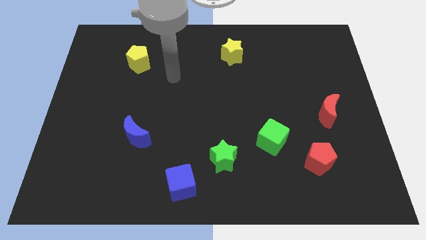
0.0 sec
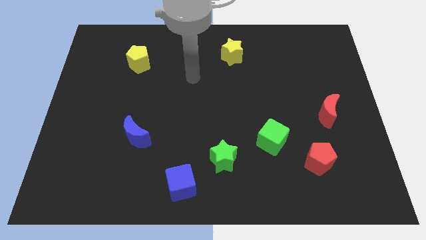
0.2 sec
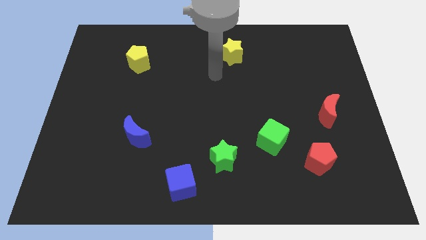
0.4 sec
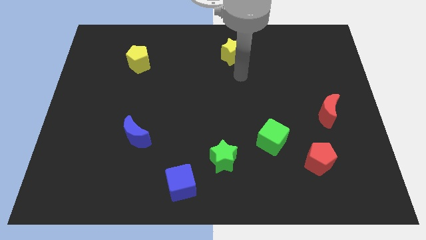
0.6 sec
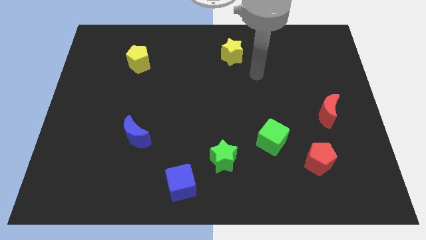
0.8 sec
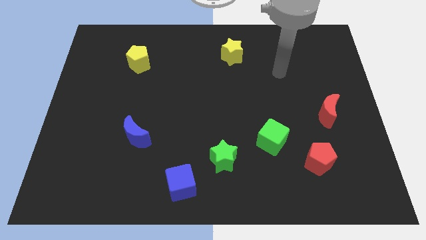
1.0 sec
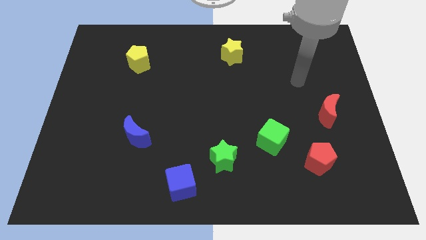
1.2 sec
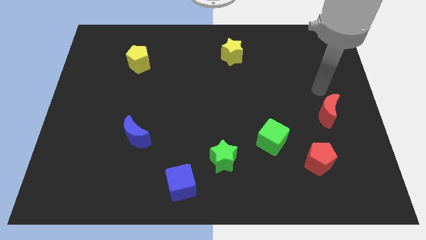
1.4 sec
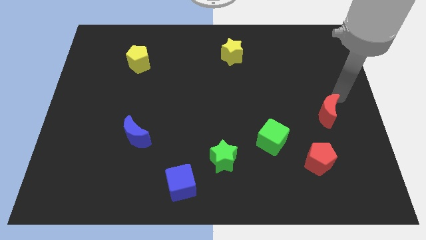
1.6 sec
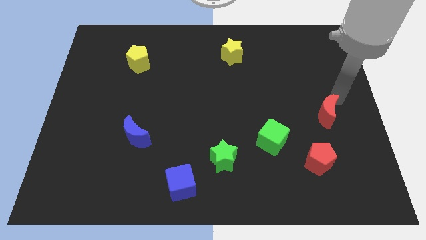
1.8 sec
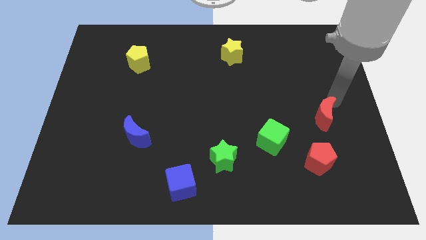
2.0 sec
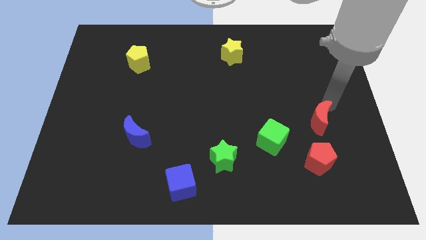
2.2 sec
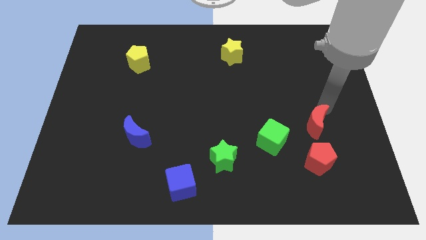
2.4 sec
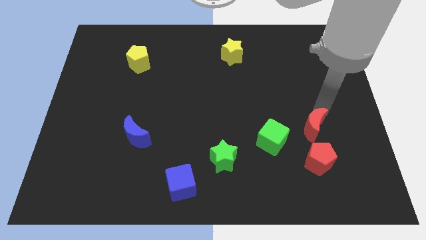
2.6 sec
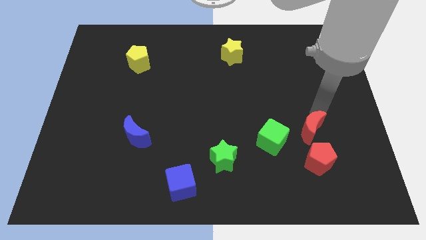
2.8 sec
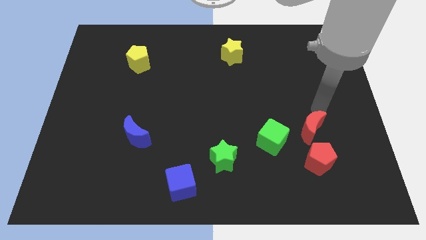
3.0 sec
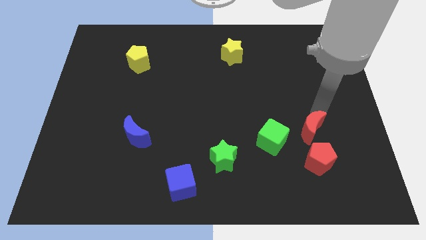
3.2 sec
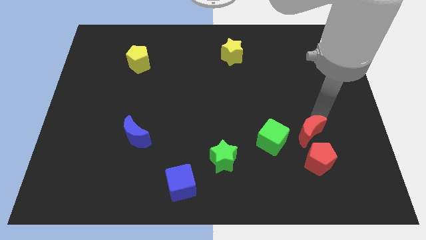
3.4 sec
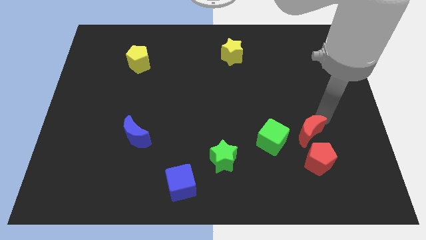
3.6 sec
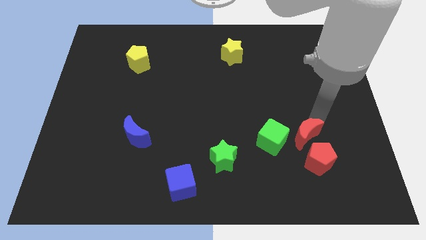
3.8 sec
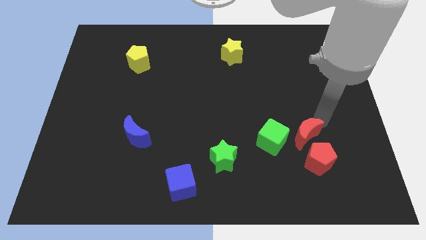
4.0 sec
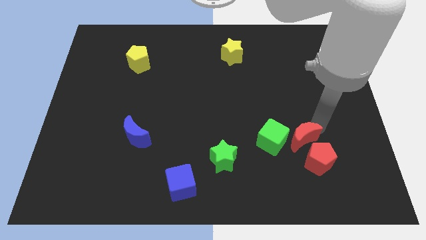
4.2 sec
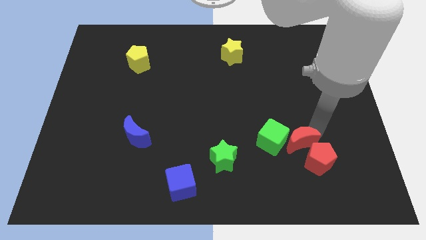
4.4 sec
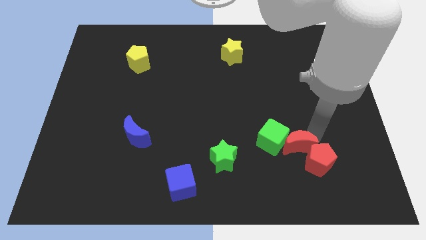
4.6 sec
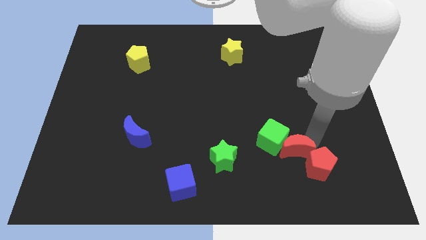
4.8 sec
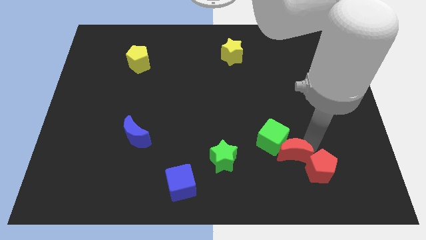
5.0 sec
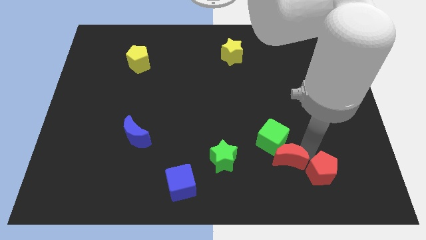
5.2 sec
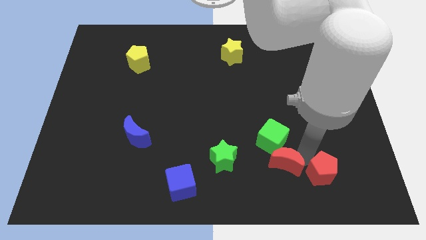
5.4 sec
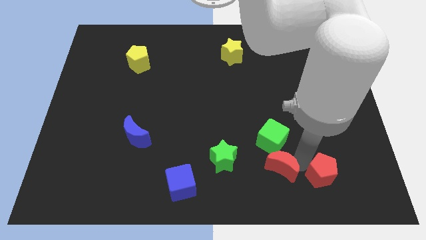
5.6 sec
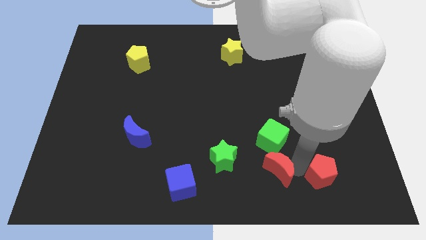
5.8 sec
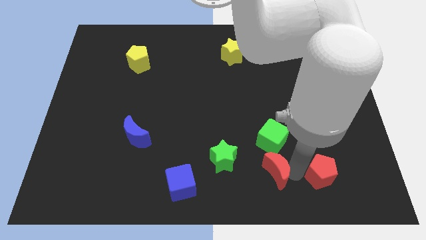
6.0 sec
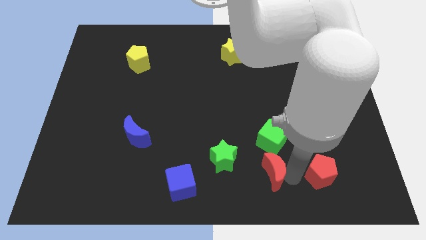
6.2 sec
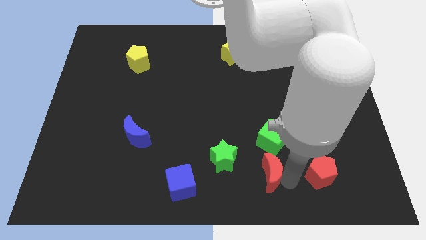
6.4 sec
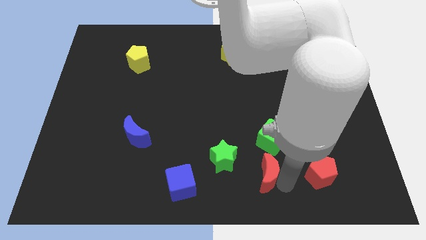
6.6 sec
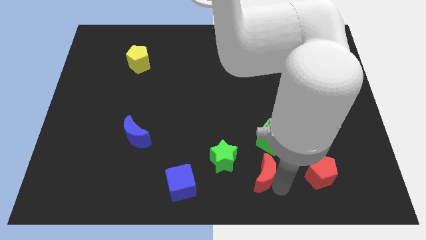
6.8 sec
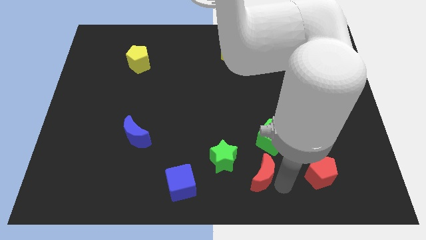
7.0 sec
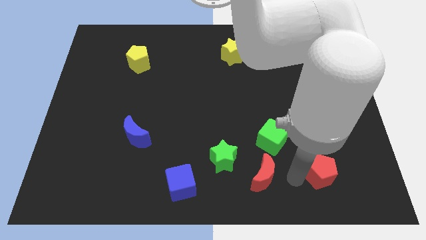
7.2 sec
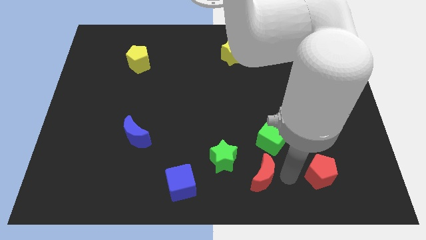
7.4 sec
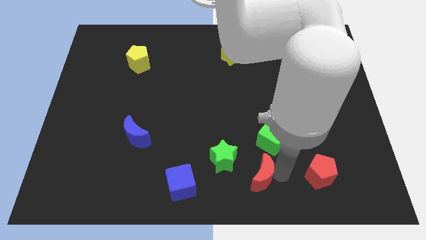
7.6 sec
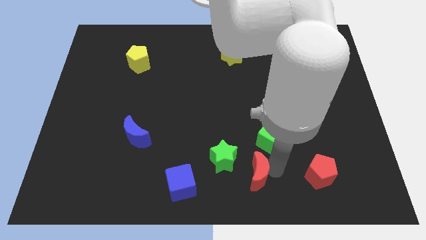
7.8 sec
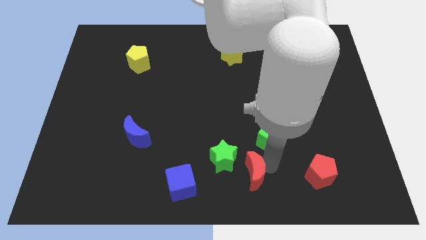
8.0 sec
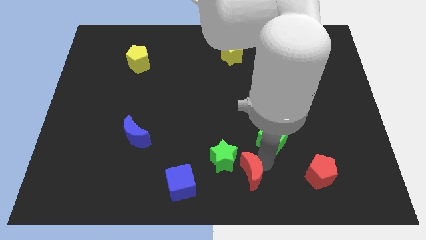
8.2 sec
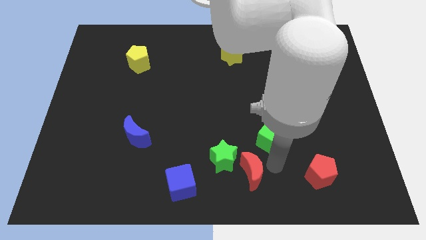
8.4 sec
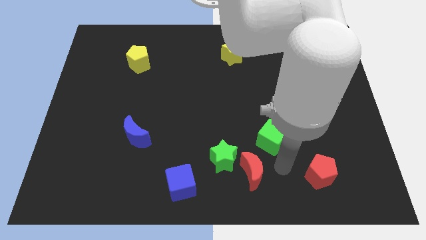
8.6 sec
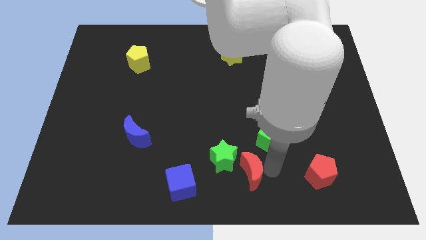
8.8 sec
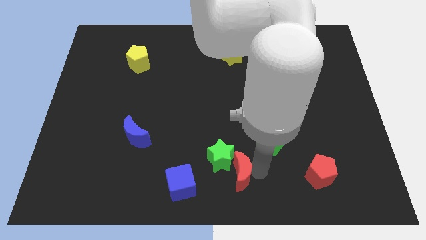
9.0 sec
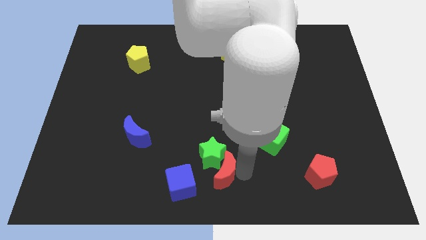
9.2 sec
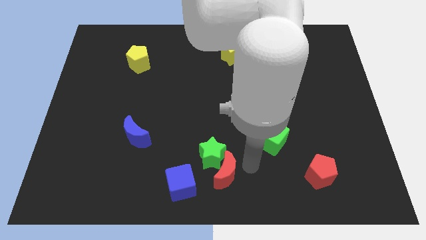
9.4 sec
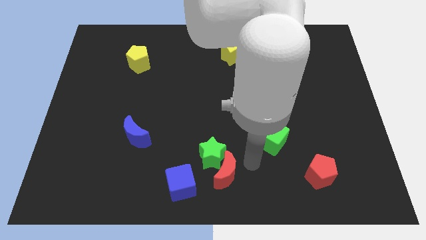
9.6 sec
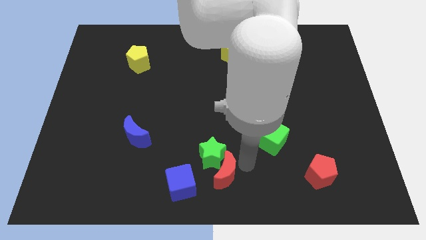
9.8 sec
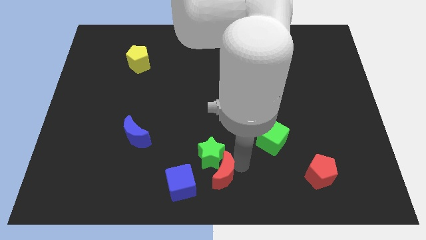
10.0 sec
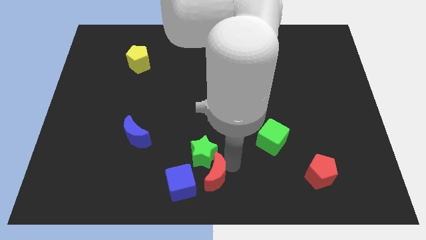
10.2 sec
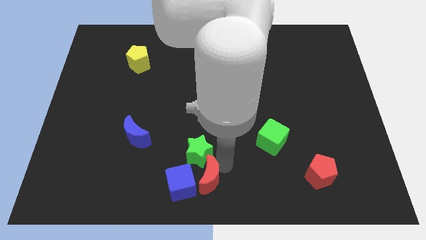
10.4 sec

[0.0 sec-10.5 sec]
put the red moon close to the blue cube

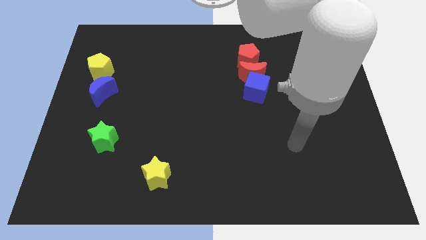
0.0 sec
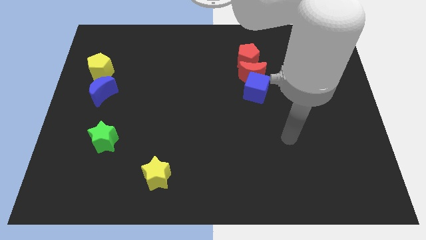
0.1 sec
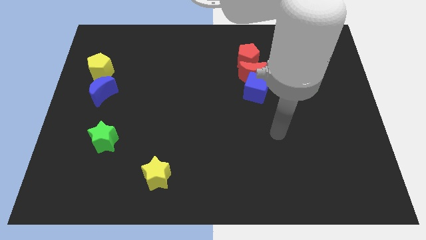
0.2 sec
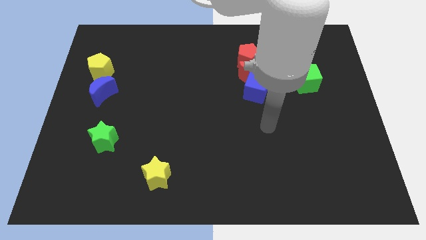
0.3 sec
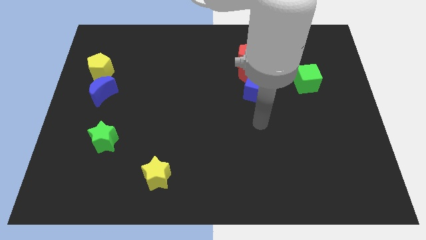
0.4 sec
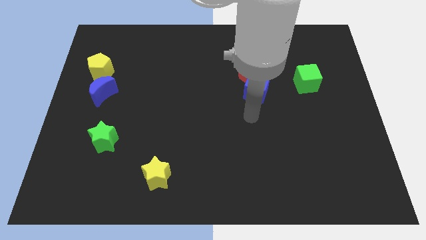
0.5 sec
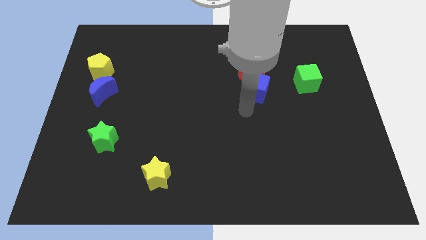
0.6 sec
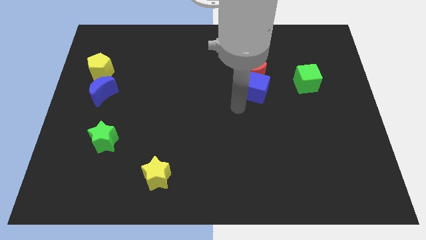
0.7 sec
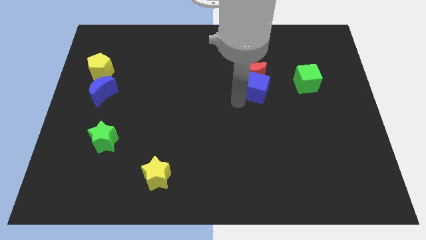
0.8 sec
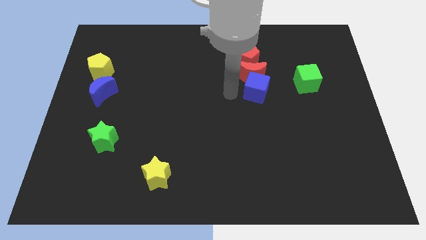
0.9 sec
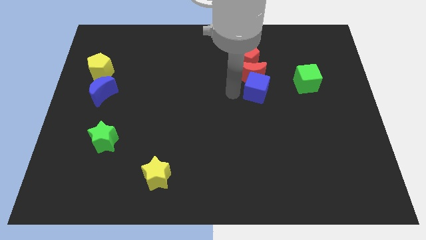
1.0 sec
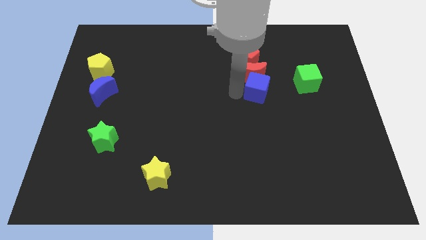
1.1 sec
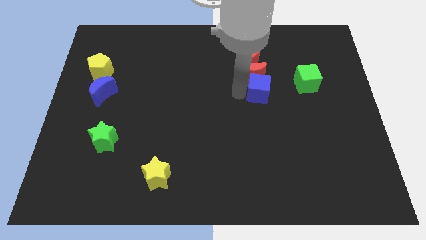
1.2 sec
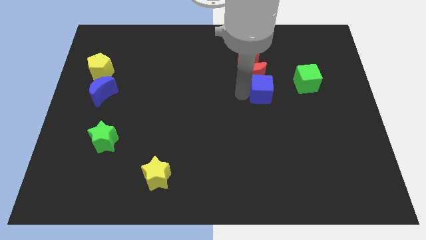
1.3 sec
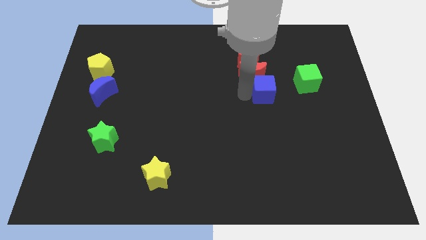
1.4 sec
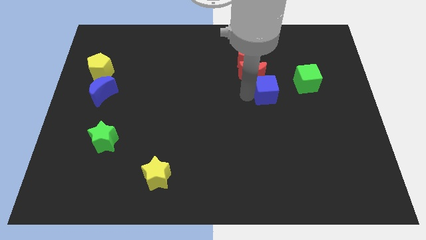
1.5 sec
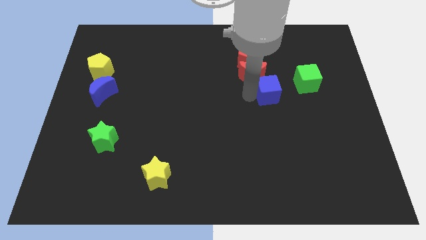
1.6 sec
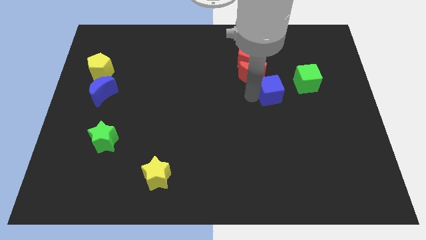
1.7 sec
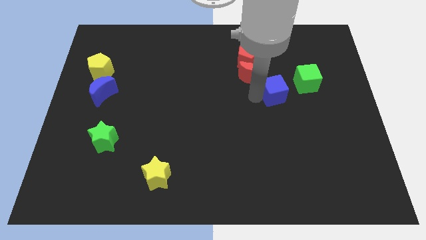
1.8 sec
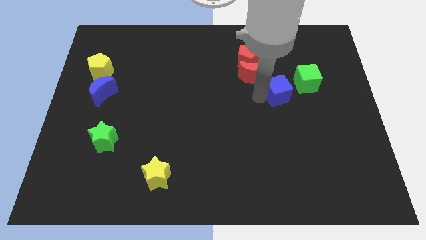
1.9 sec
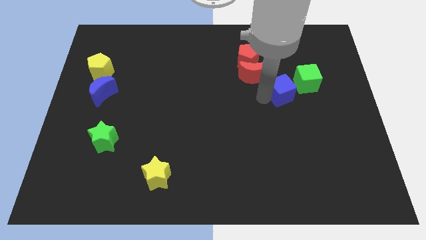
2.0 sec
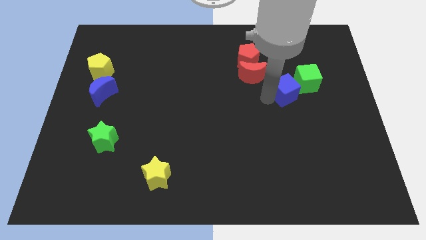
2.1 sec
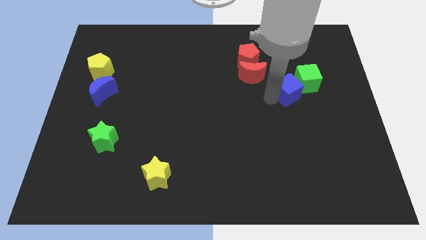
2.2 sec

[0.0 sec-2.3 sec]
put the blue cube next to the green cube

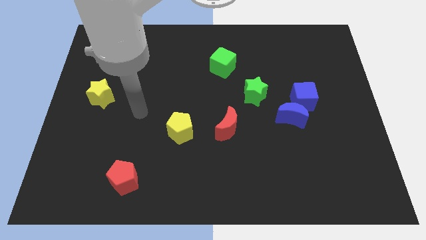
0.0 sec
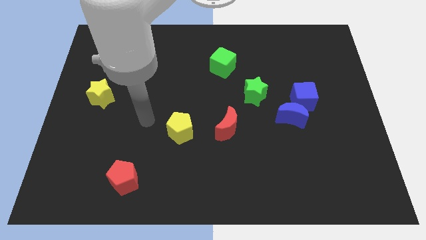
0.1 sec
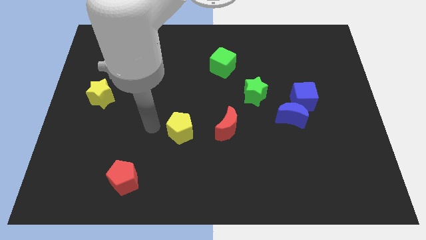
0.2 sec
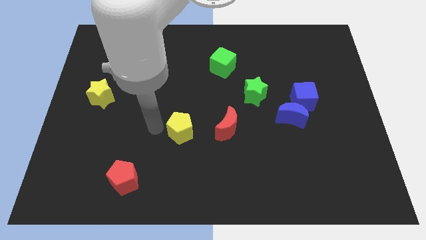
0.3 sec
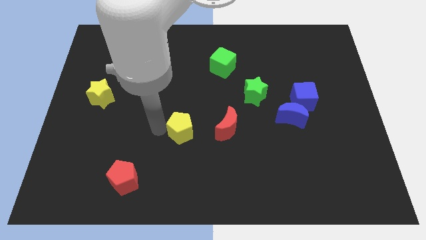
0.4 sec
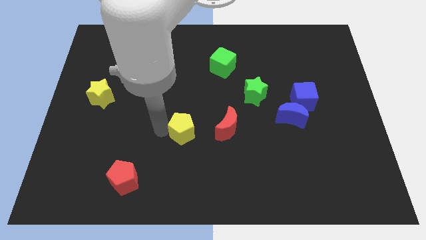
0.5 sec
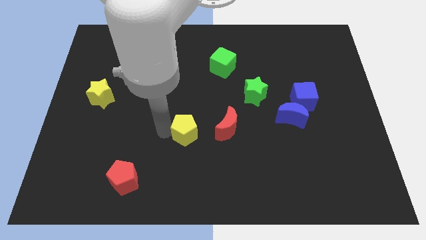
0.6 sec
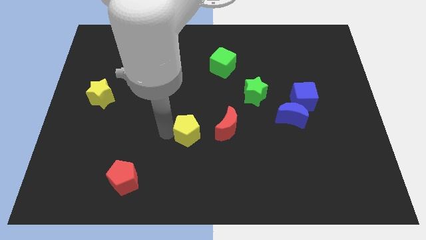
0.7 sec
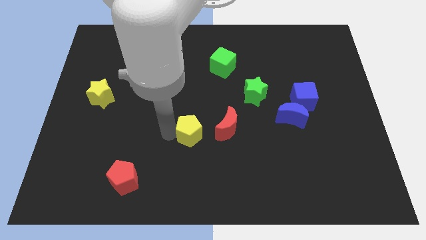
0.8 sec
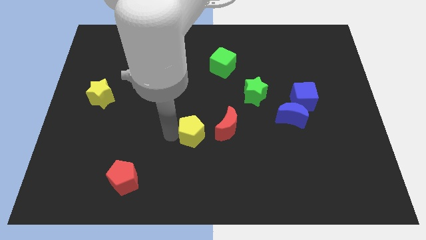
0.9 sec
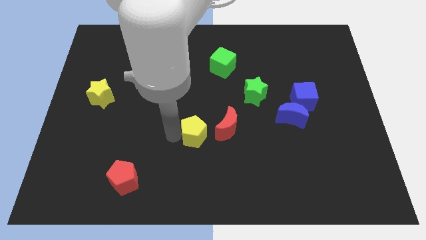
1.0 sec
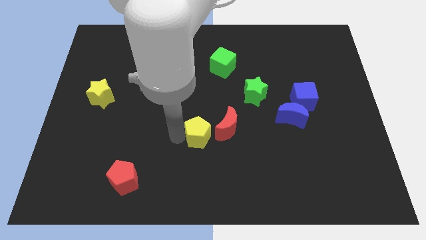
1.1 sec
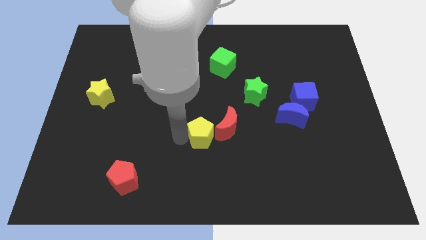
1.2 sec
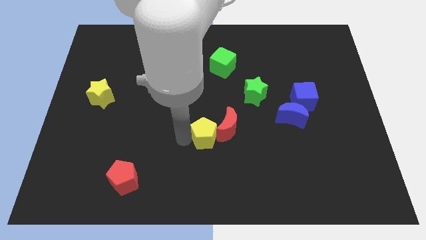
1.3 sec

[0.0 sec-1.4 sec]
put the yellow pentagon towards the red moon
